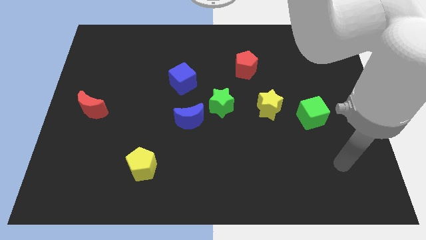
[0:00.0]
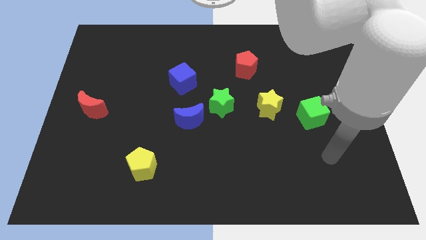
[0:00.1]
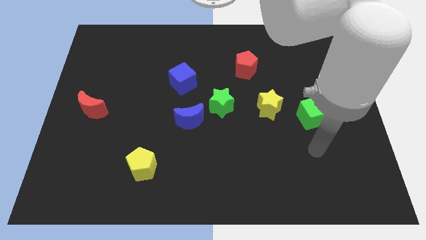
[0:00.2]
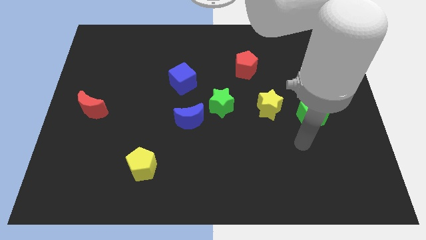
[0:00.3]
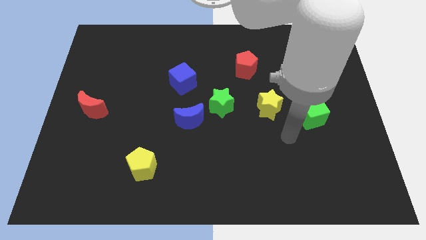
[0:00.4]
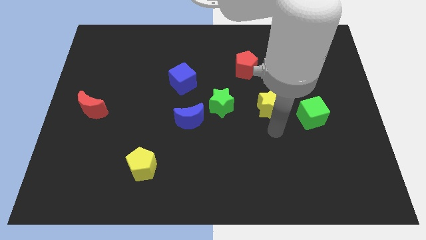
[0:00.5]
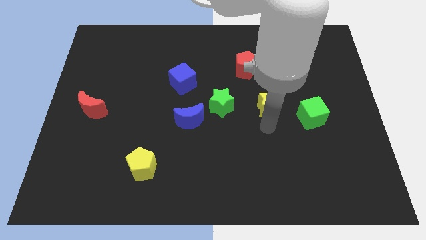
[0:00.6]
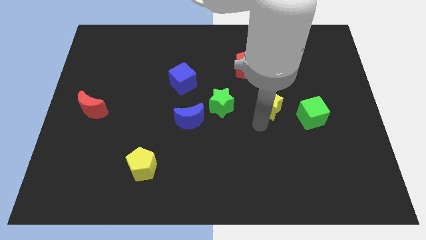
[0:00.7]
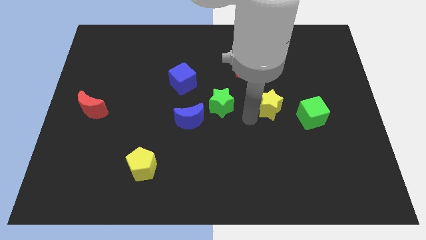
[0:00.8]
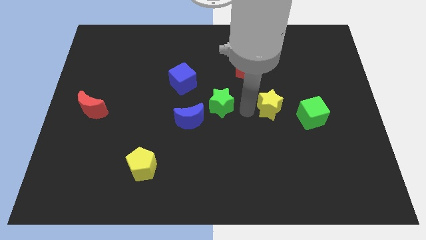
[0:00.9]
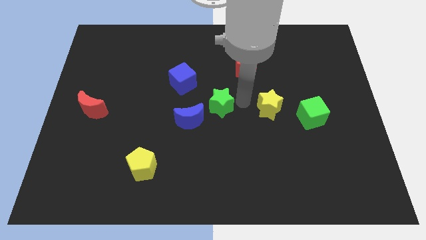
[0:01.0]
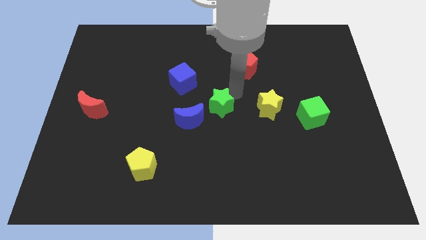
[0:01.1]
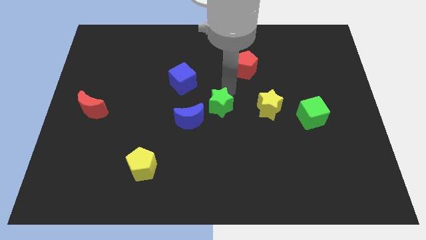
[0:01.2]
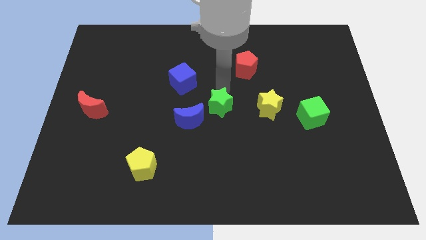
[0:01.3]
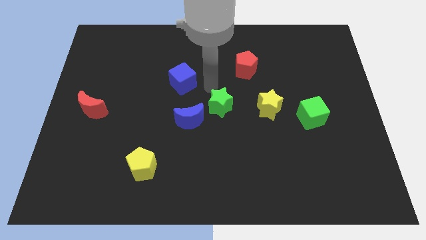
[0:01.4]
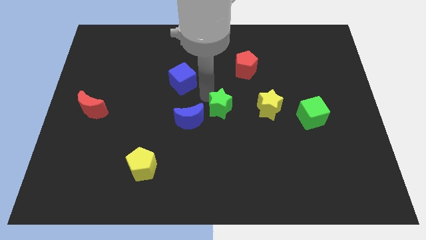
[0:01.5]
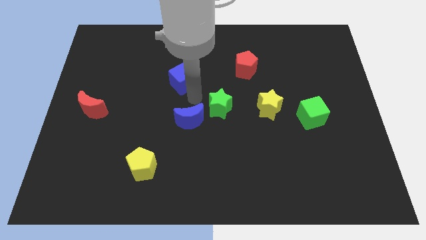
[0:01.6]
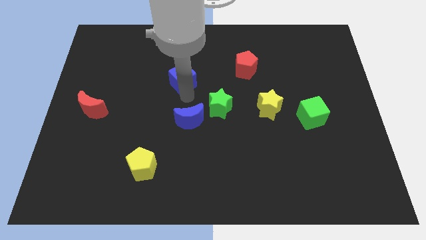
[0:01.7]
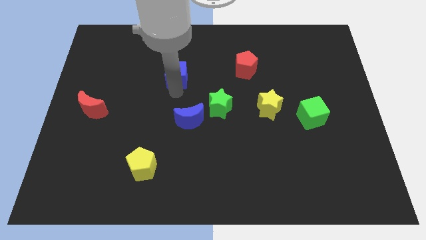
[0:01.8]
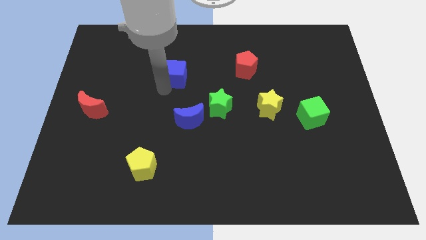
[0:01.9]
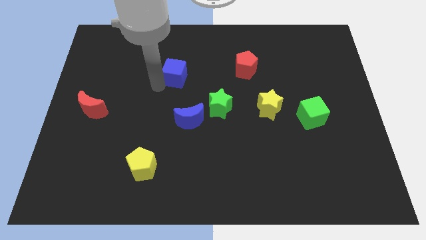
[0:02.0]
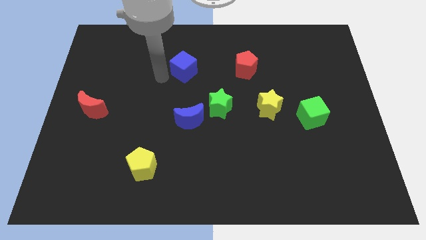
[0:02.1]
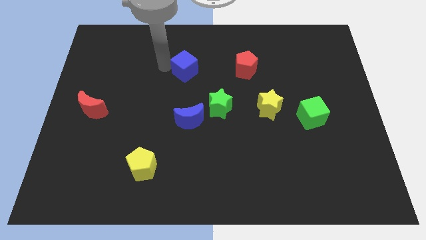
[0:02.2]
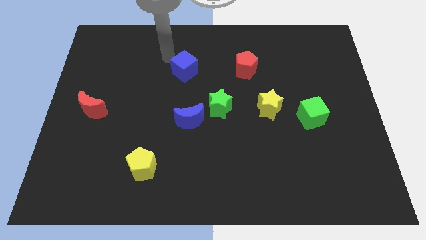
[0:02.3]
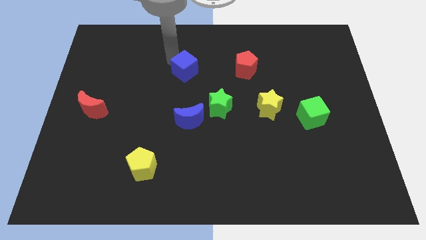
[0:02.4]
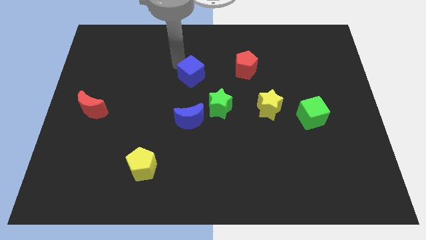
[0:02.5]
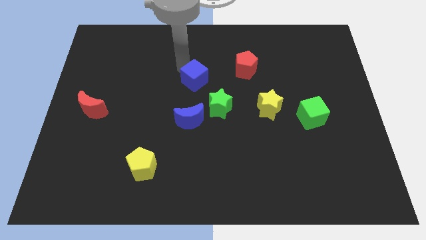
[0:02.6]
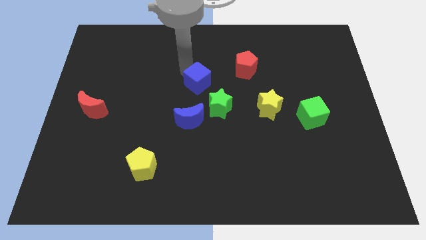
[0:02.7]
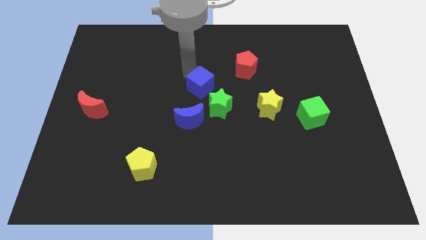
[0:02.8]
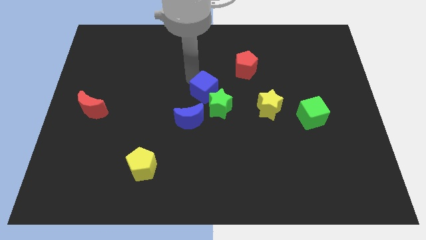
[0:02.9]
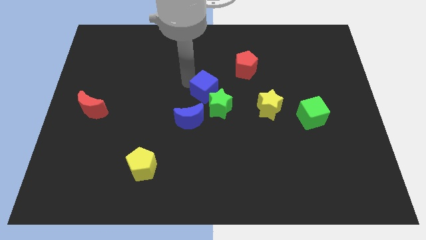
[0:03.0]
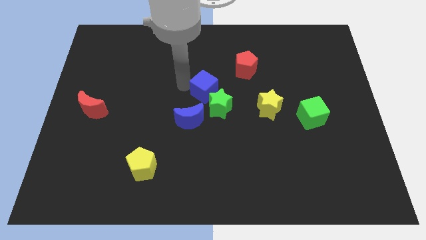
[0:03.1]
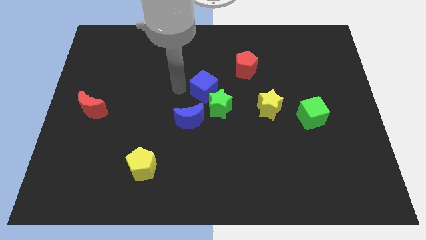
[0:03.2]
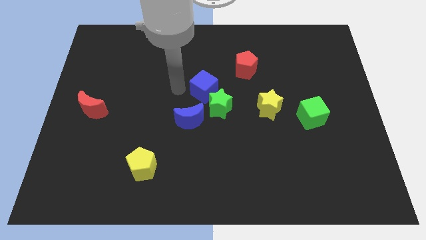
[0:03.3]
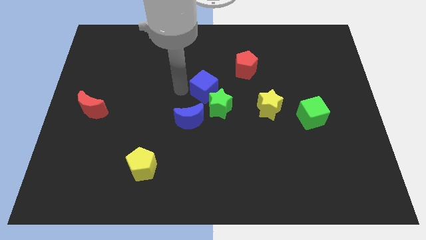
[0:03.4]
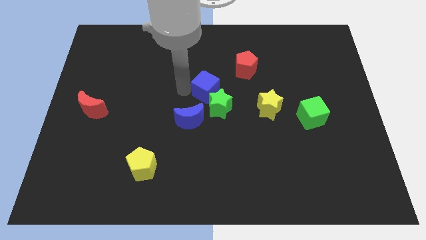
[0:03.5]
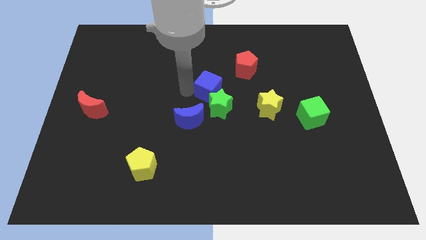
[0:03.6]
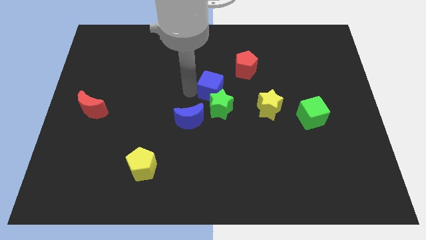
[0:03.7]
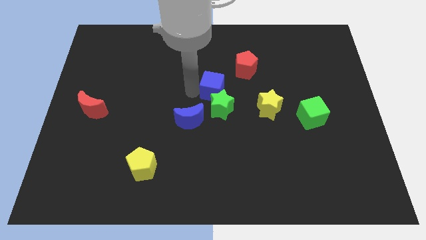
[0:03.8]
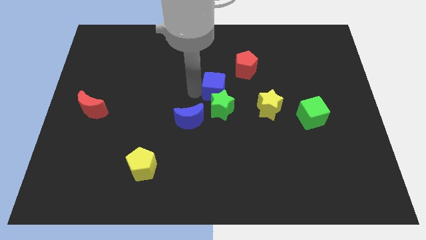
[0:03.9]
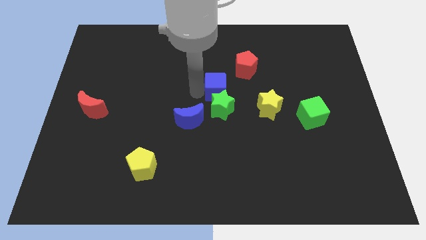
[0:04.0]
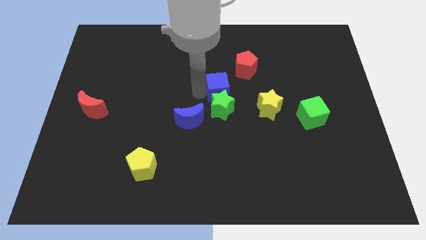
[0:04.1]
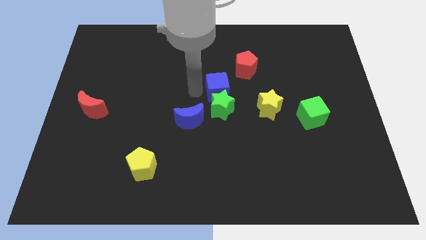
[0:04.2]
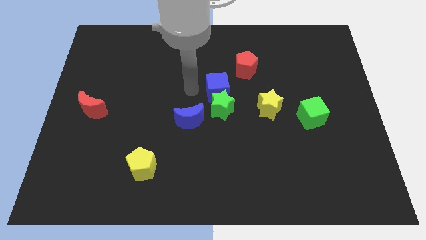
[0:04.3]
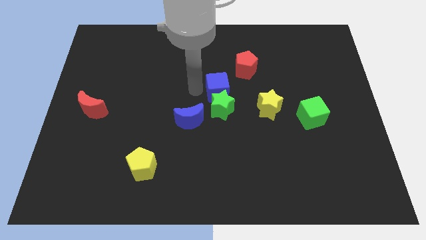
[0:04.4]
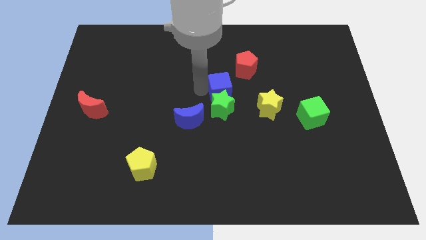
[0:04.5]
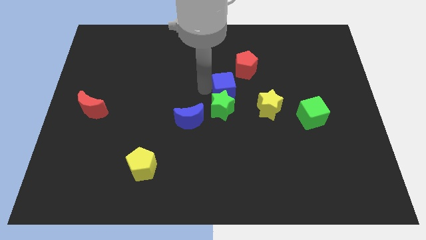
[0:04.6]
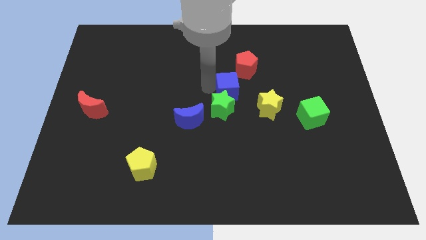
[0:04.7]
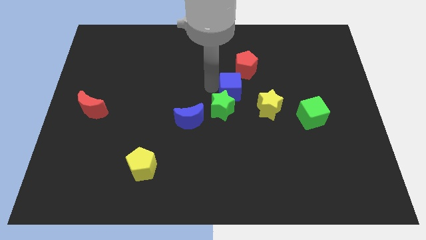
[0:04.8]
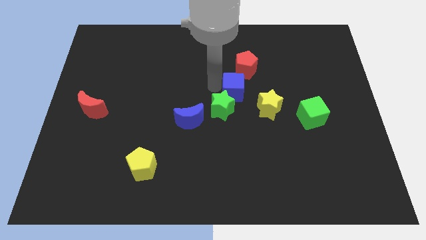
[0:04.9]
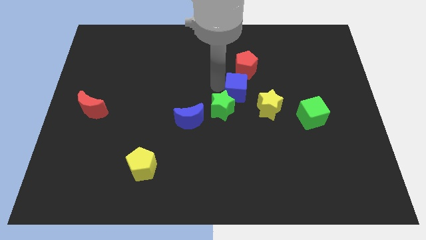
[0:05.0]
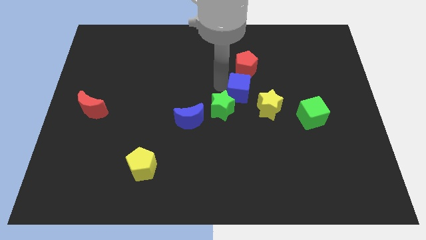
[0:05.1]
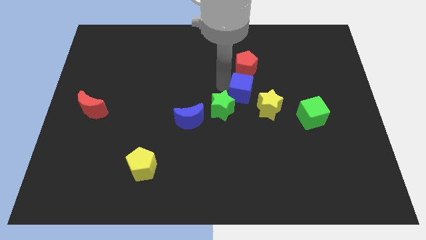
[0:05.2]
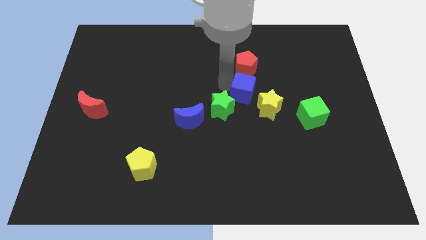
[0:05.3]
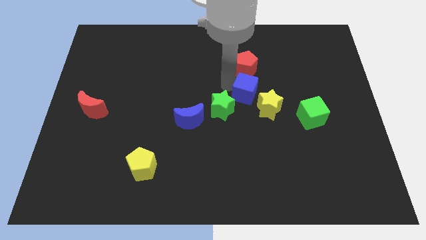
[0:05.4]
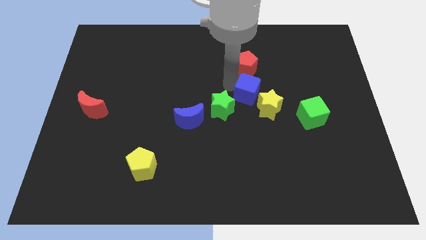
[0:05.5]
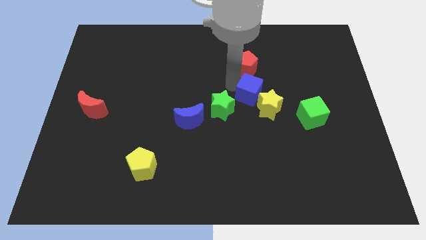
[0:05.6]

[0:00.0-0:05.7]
move the blue cube to the yellow star

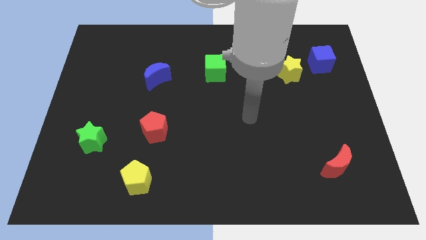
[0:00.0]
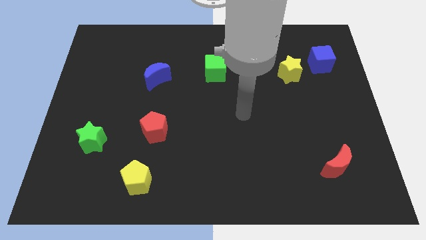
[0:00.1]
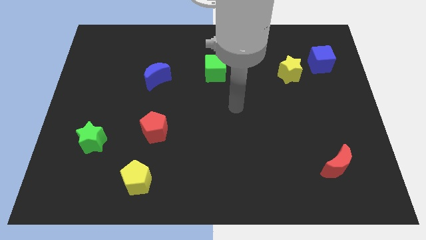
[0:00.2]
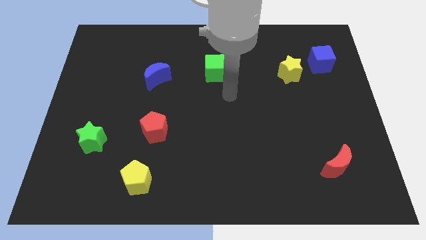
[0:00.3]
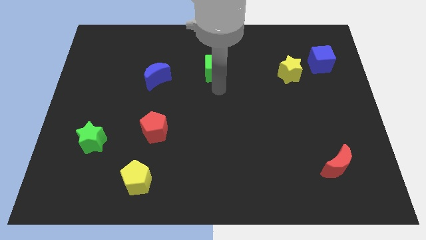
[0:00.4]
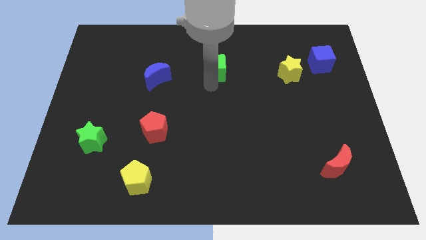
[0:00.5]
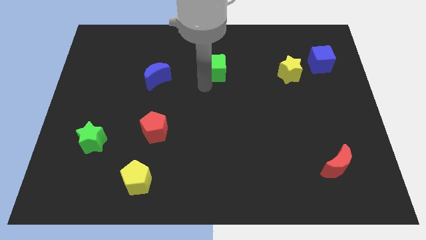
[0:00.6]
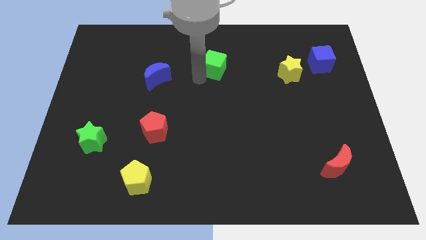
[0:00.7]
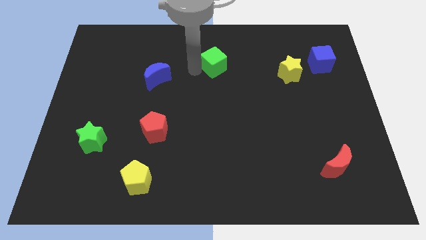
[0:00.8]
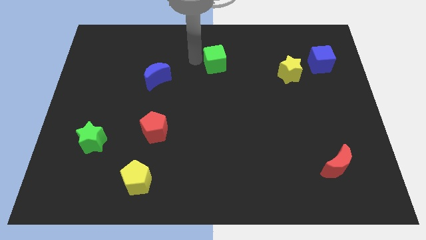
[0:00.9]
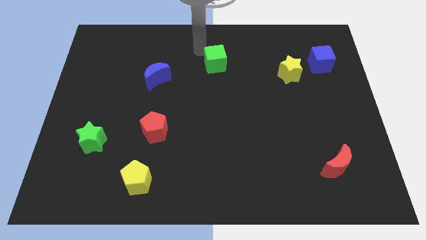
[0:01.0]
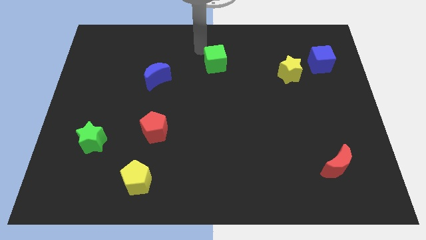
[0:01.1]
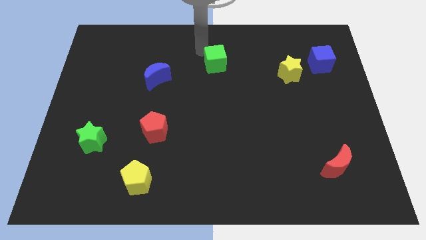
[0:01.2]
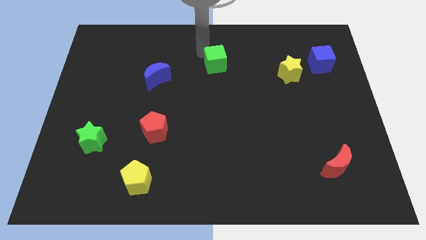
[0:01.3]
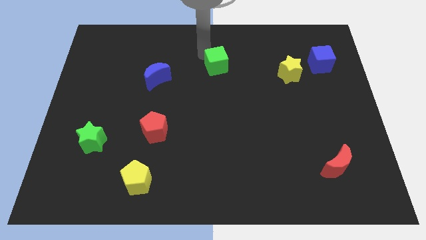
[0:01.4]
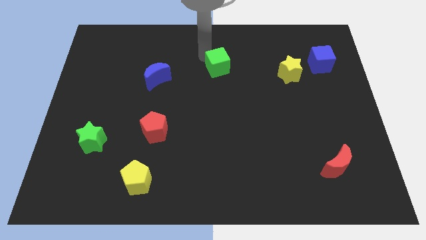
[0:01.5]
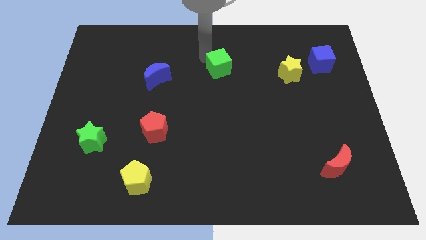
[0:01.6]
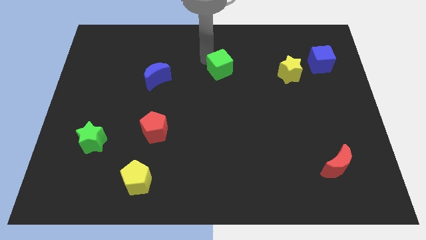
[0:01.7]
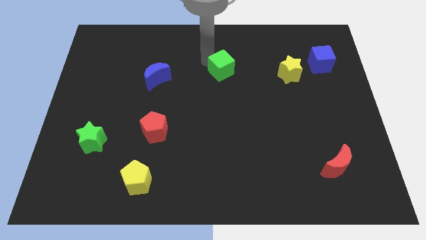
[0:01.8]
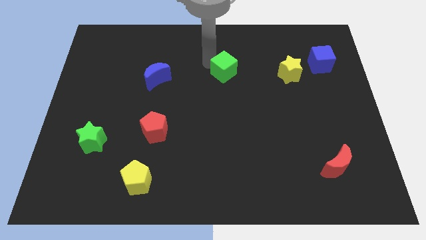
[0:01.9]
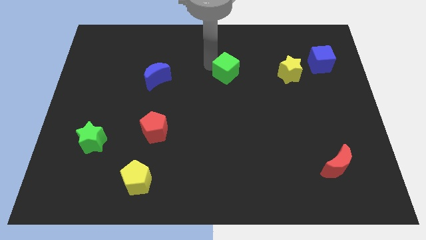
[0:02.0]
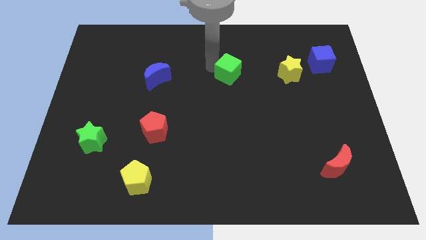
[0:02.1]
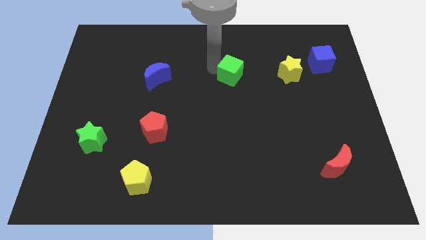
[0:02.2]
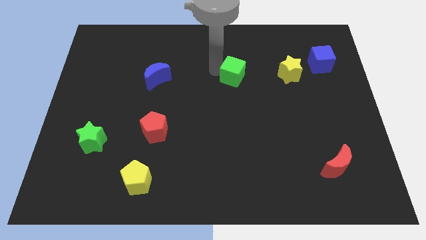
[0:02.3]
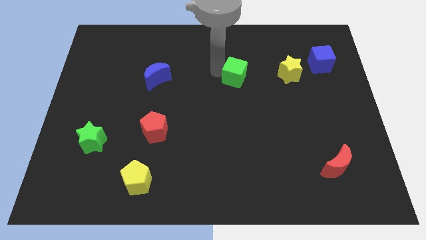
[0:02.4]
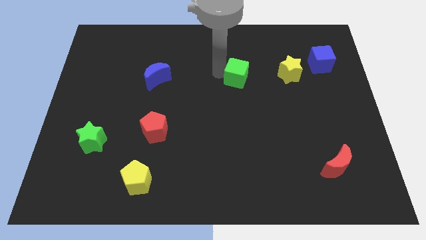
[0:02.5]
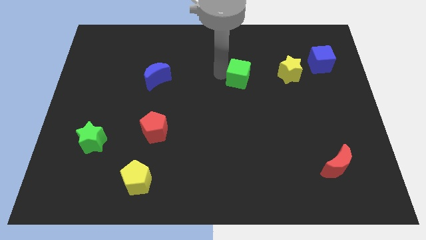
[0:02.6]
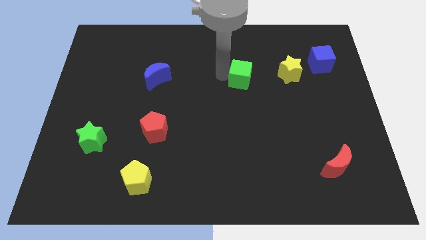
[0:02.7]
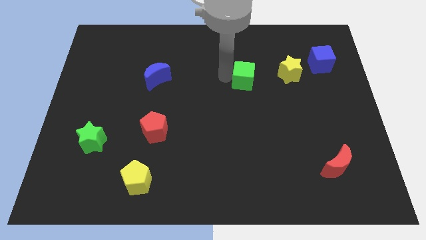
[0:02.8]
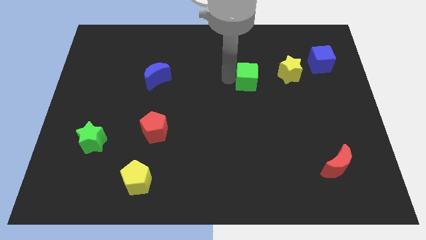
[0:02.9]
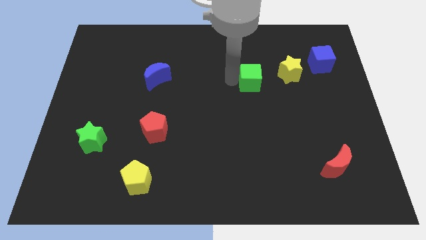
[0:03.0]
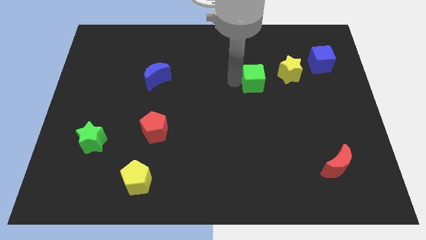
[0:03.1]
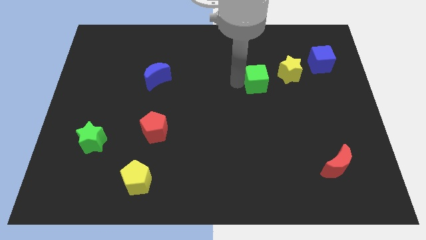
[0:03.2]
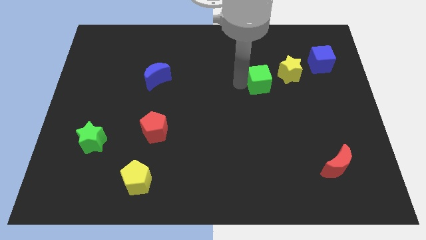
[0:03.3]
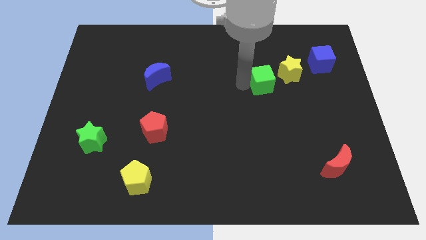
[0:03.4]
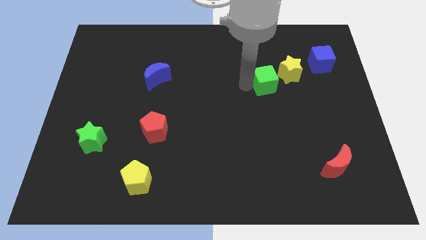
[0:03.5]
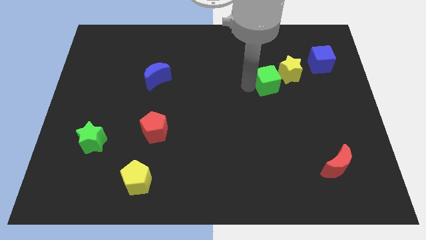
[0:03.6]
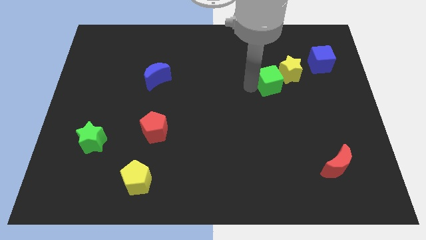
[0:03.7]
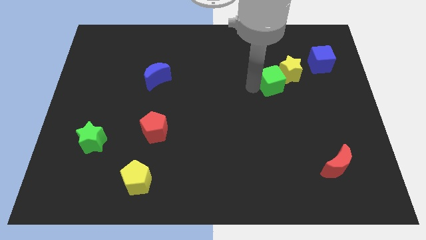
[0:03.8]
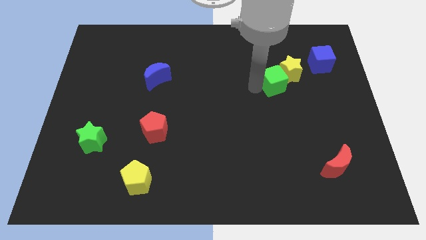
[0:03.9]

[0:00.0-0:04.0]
put the green cube towards the yellow star
